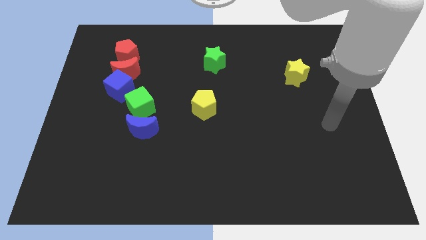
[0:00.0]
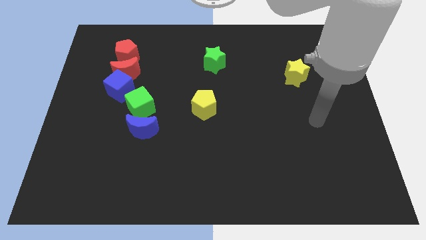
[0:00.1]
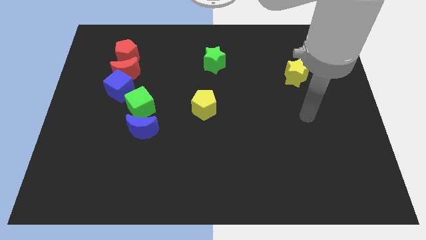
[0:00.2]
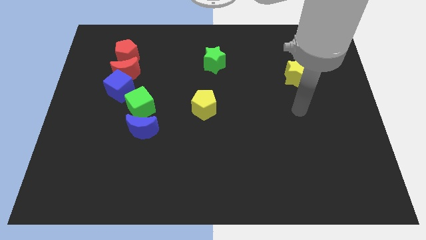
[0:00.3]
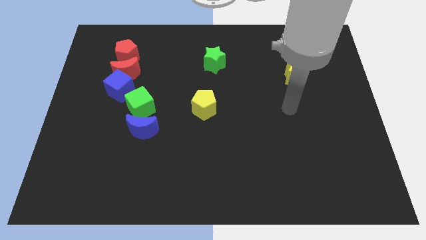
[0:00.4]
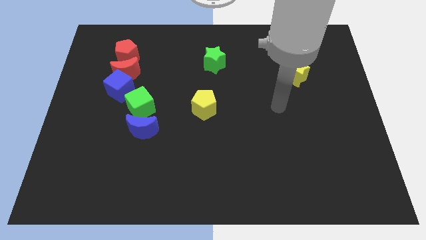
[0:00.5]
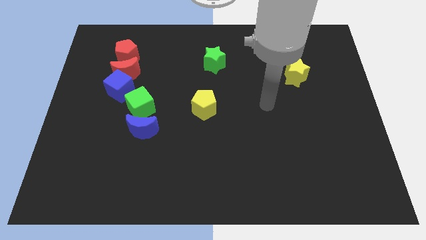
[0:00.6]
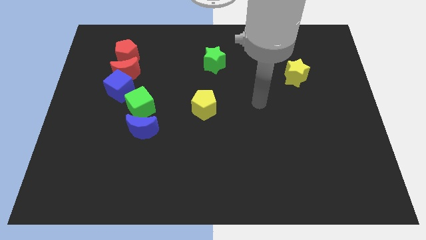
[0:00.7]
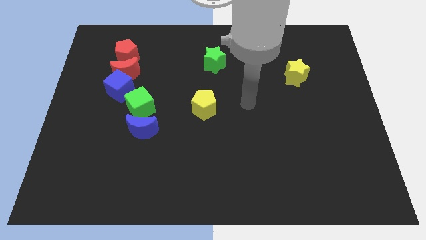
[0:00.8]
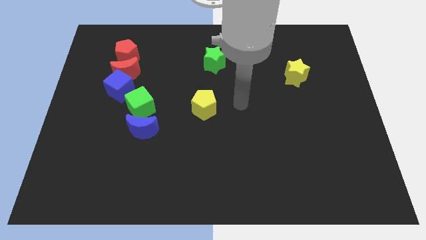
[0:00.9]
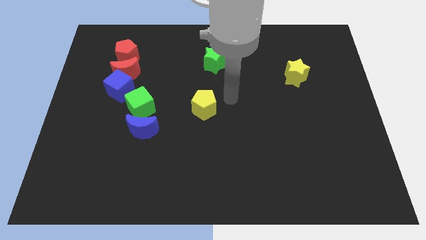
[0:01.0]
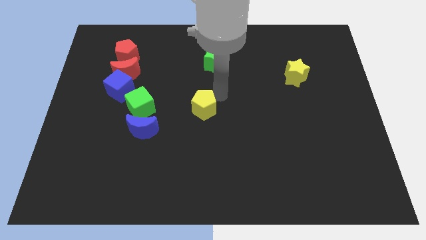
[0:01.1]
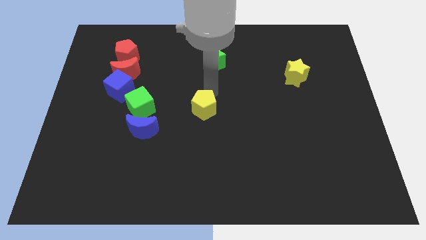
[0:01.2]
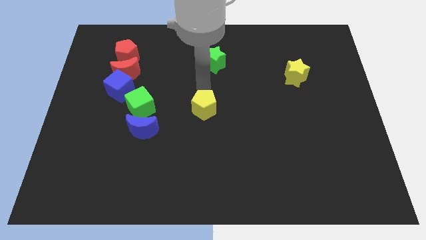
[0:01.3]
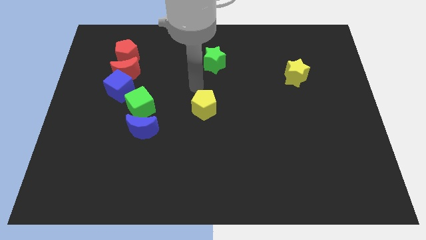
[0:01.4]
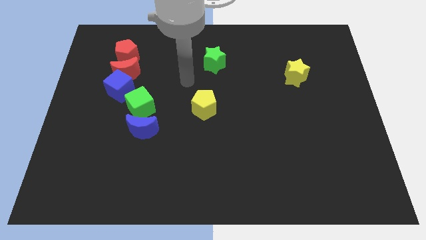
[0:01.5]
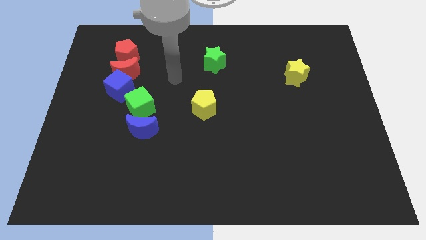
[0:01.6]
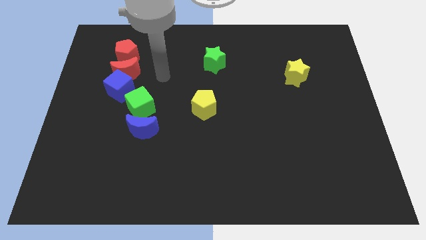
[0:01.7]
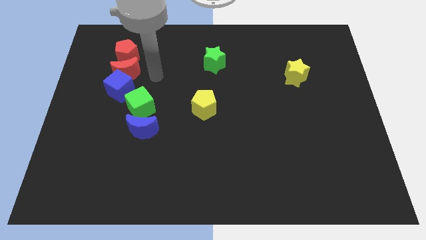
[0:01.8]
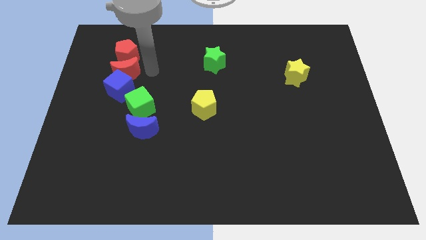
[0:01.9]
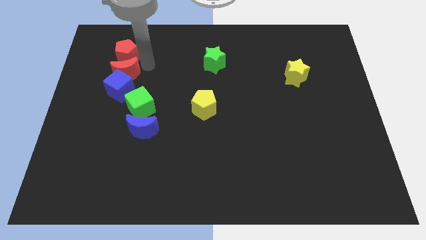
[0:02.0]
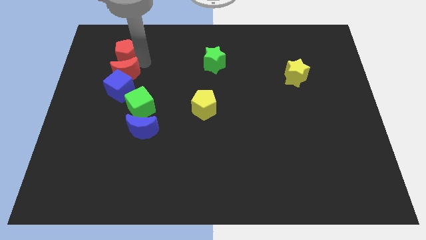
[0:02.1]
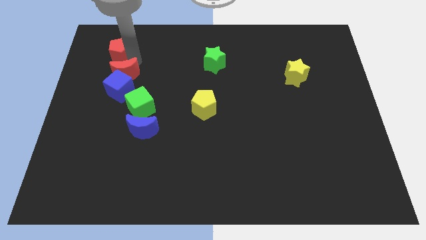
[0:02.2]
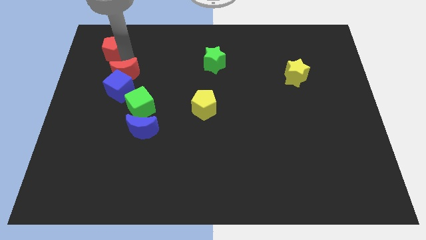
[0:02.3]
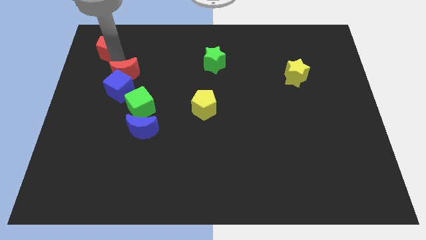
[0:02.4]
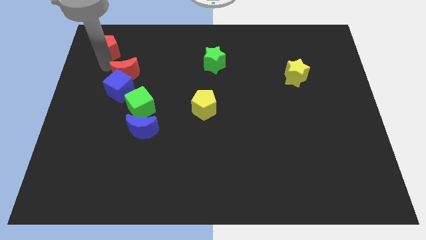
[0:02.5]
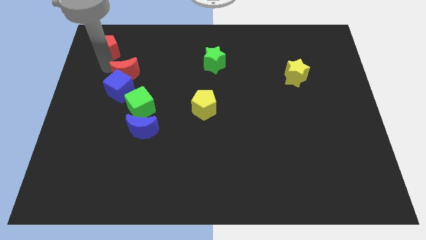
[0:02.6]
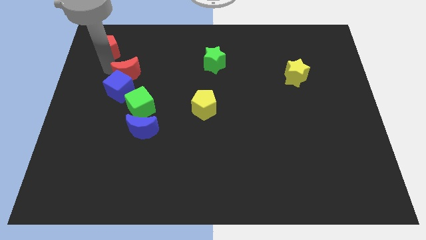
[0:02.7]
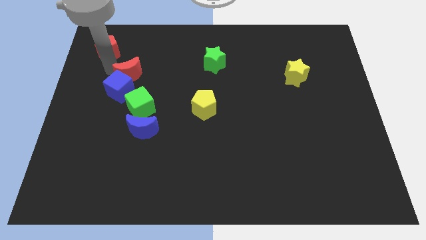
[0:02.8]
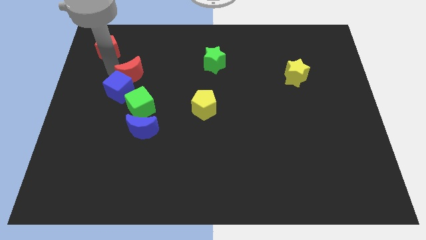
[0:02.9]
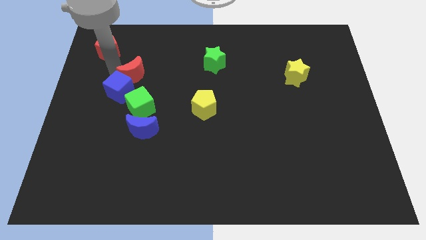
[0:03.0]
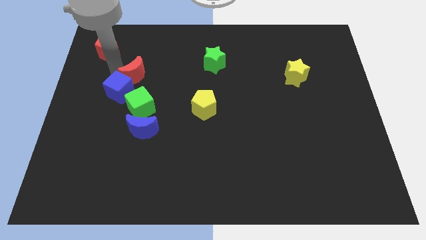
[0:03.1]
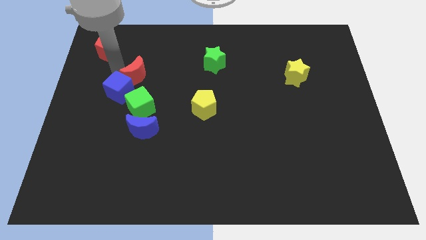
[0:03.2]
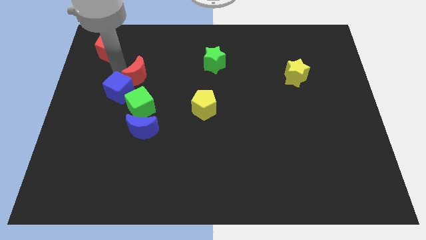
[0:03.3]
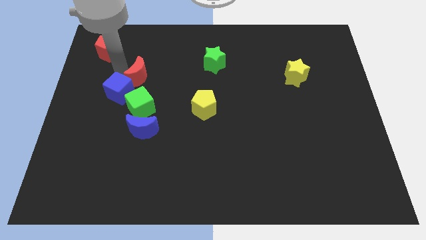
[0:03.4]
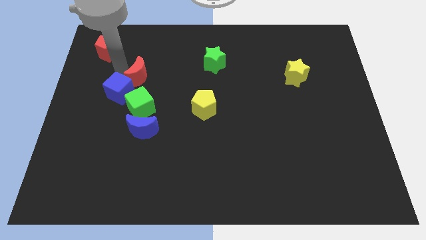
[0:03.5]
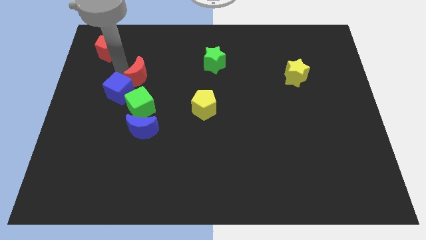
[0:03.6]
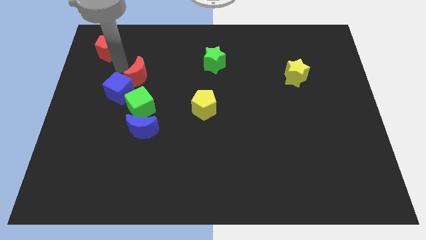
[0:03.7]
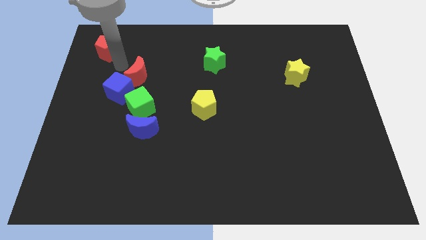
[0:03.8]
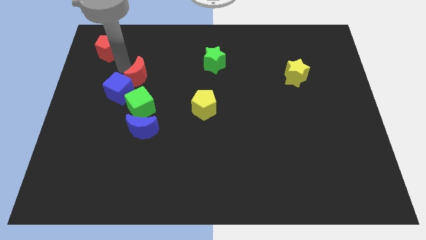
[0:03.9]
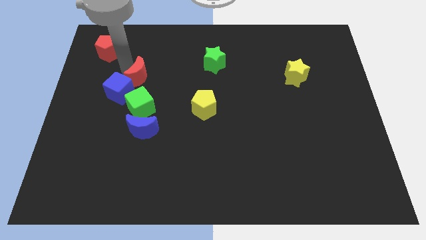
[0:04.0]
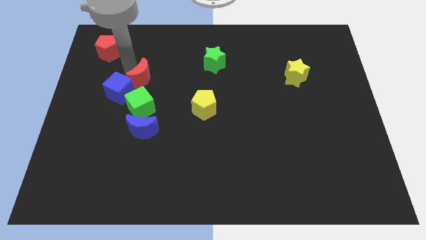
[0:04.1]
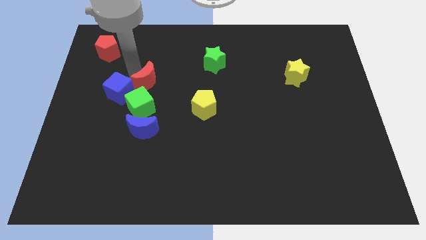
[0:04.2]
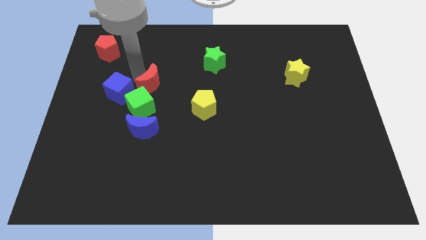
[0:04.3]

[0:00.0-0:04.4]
separate the red moon from the blue cube and red pentagon

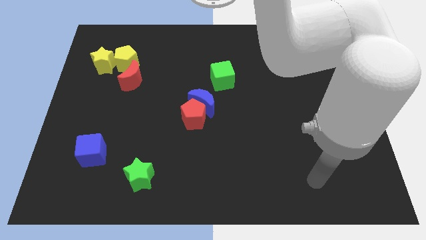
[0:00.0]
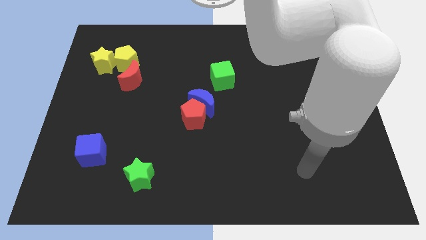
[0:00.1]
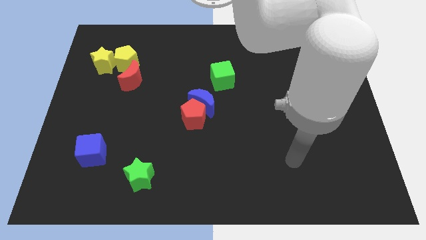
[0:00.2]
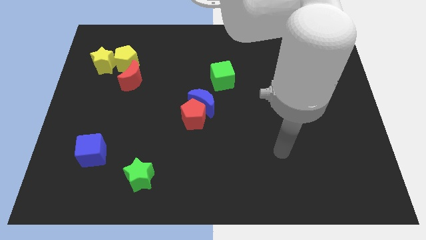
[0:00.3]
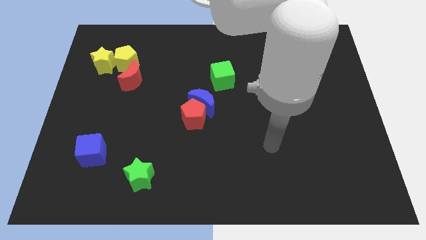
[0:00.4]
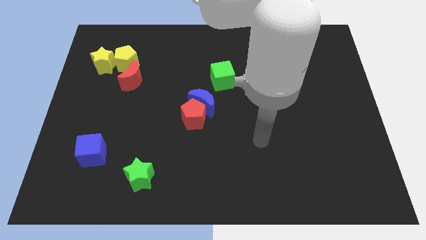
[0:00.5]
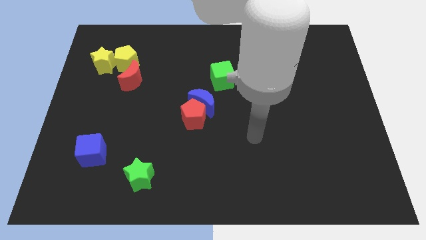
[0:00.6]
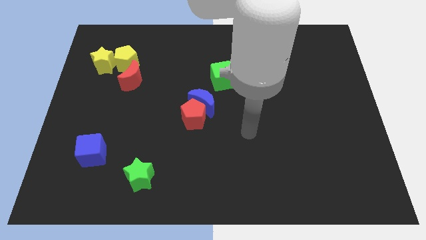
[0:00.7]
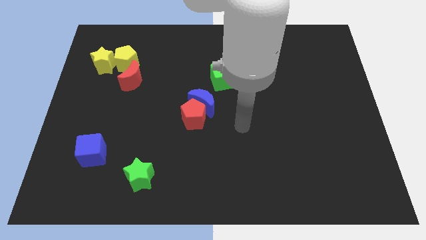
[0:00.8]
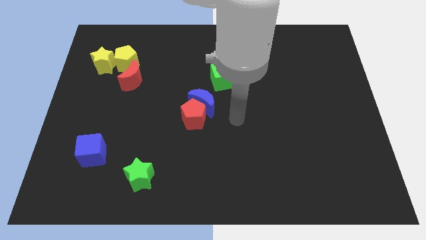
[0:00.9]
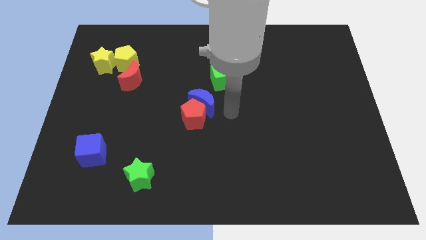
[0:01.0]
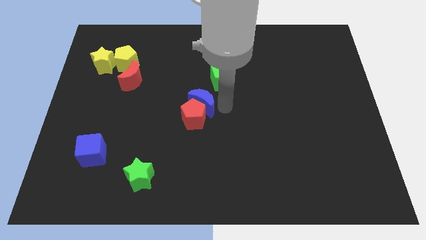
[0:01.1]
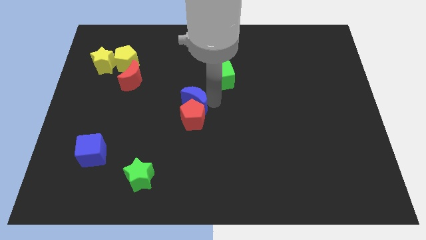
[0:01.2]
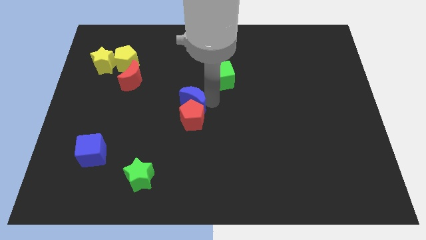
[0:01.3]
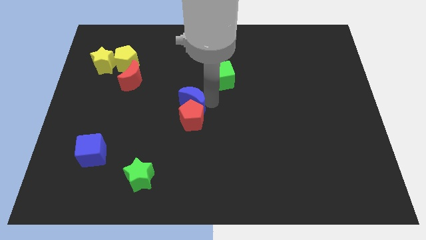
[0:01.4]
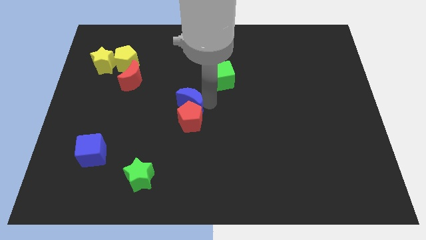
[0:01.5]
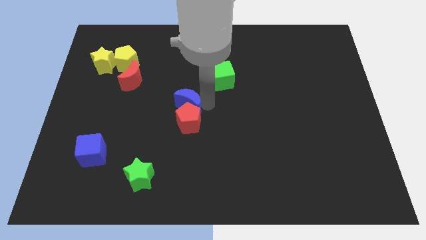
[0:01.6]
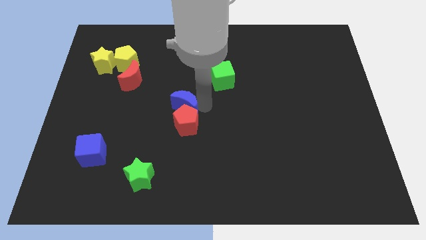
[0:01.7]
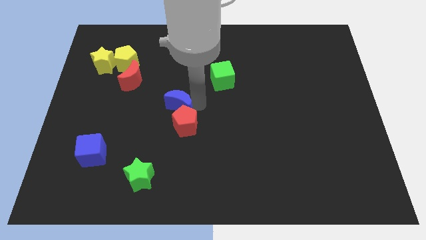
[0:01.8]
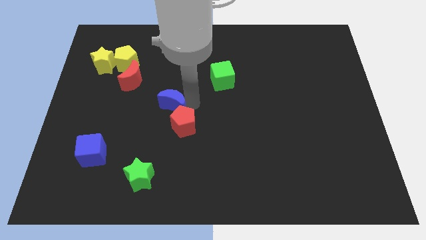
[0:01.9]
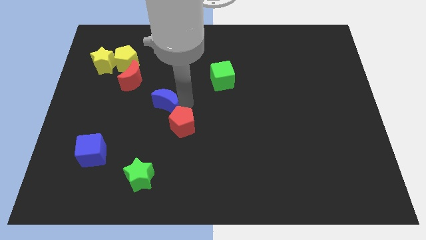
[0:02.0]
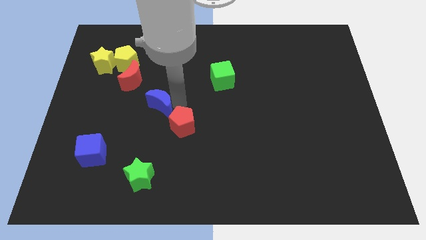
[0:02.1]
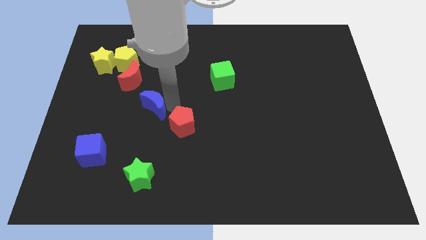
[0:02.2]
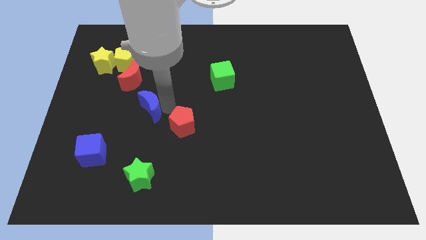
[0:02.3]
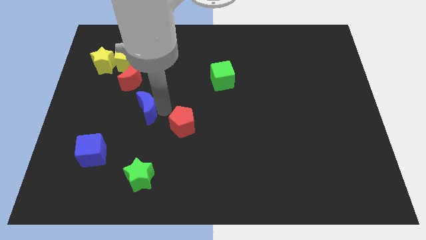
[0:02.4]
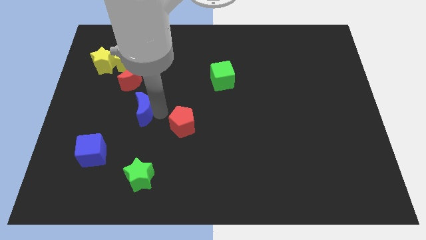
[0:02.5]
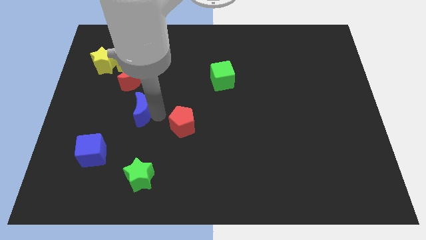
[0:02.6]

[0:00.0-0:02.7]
separate the red pentagon from the blue moon

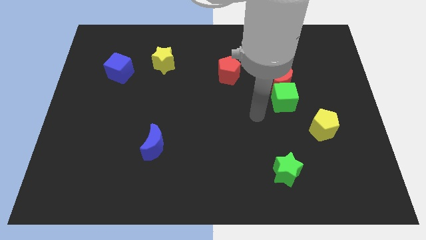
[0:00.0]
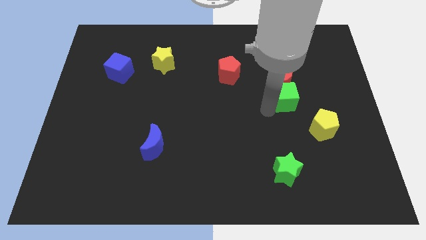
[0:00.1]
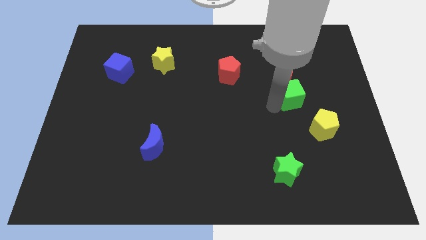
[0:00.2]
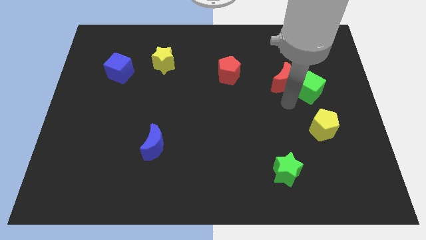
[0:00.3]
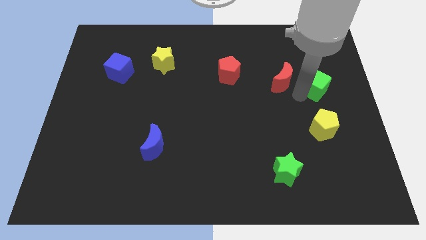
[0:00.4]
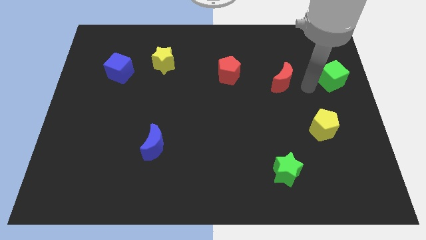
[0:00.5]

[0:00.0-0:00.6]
separate the red moon from the green cube

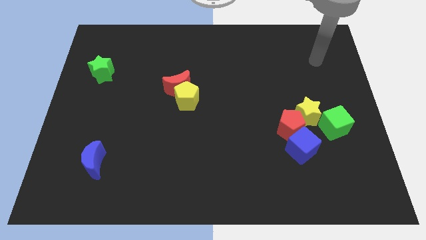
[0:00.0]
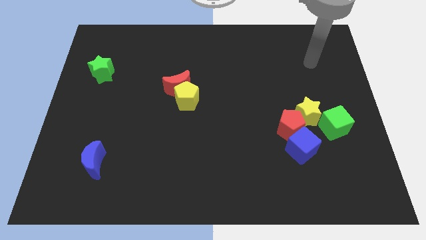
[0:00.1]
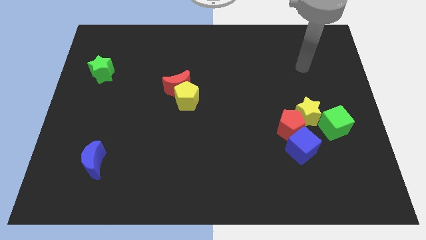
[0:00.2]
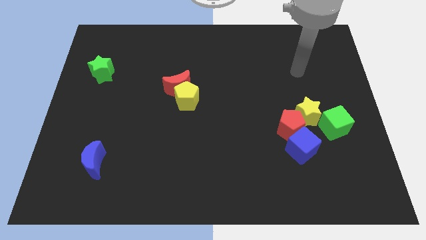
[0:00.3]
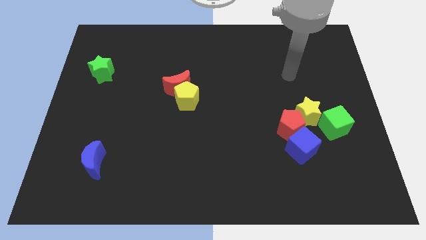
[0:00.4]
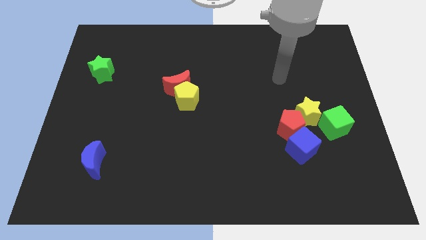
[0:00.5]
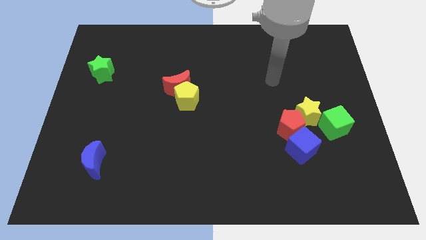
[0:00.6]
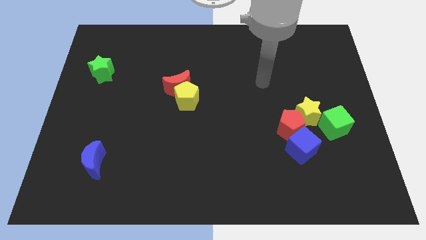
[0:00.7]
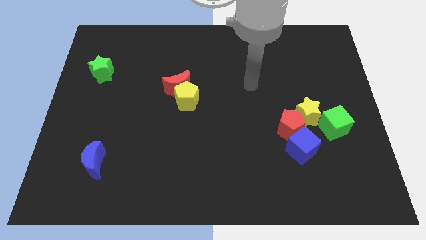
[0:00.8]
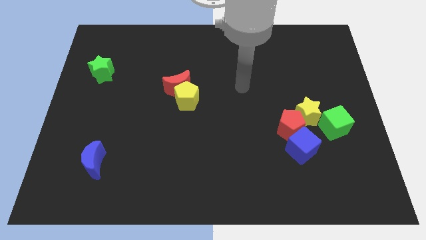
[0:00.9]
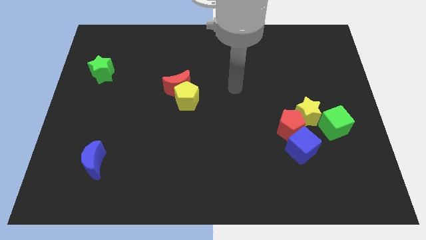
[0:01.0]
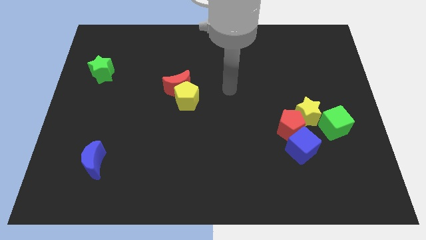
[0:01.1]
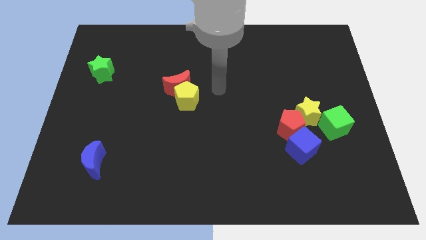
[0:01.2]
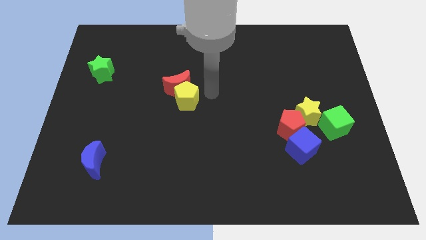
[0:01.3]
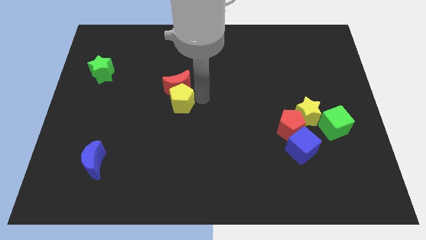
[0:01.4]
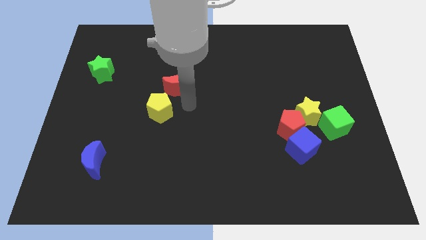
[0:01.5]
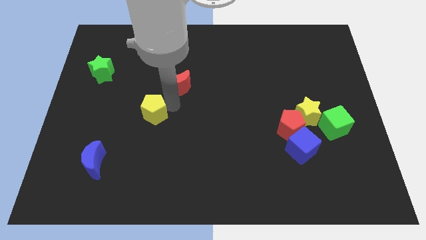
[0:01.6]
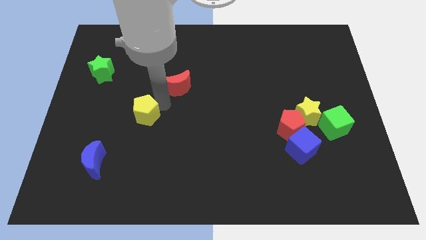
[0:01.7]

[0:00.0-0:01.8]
move the red moon away from the yellow pentagon
